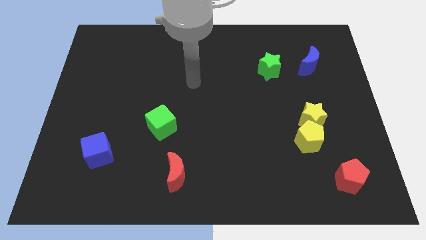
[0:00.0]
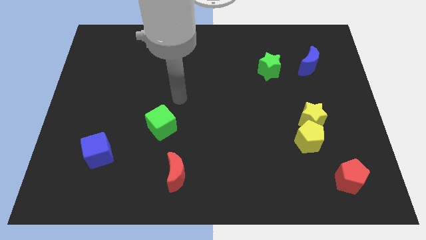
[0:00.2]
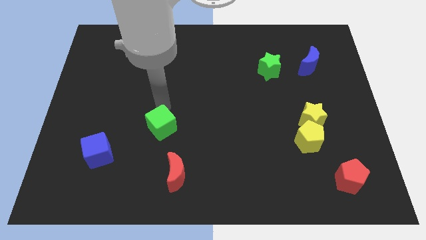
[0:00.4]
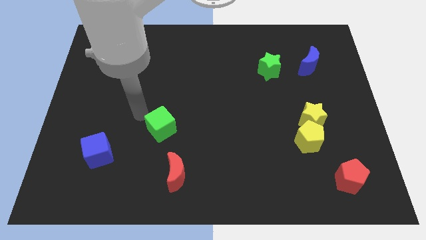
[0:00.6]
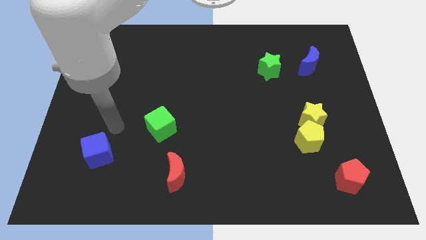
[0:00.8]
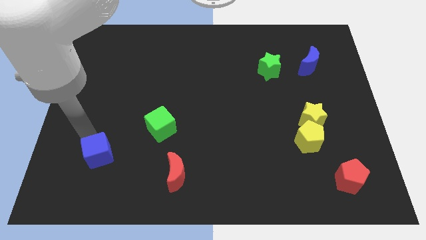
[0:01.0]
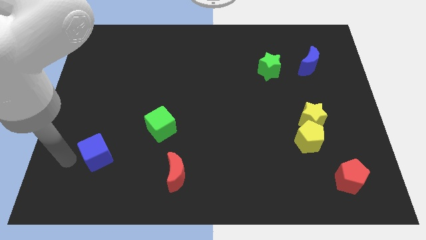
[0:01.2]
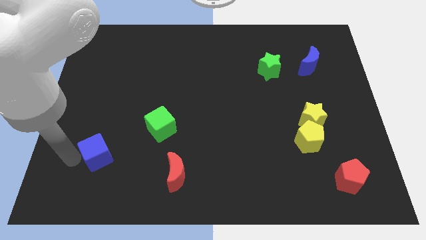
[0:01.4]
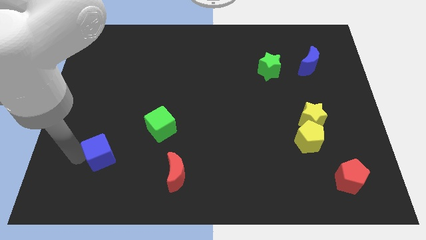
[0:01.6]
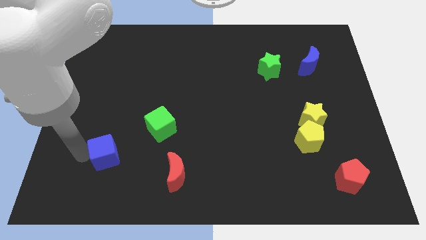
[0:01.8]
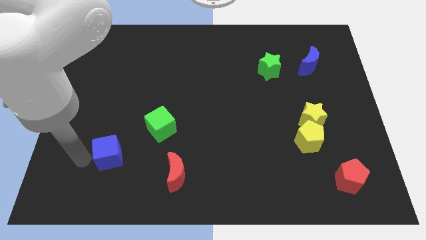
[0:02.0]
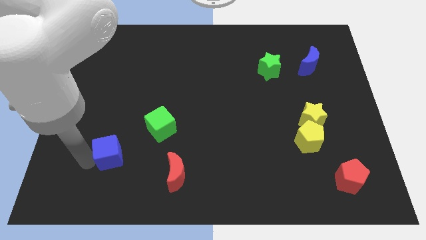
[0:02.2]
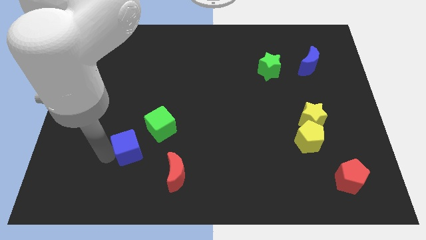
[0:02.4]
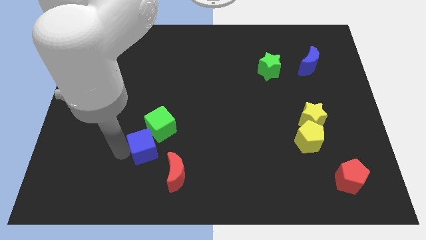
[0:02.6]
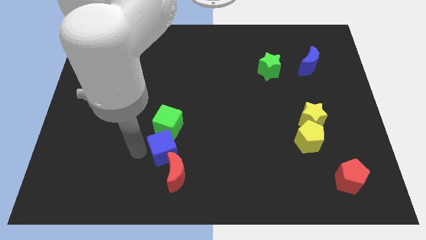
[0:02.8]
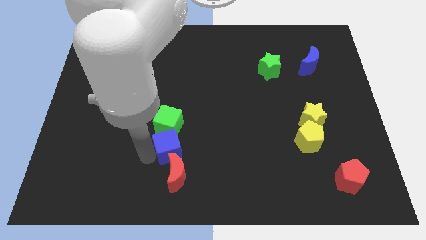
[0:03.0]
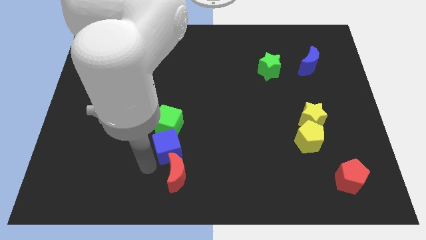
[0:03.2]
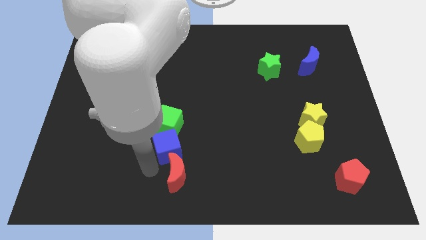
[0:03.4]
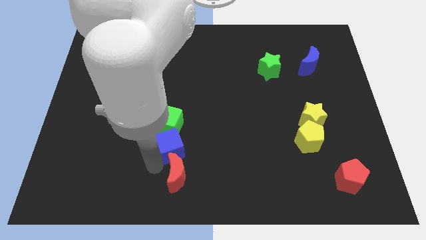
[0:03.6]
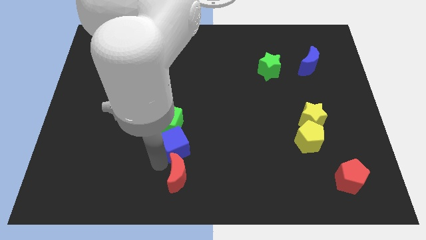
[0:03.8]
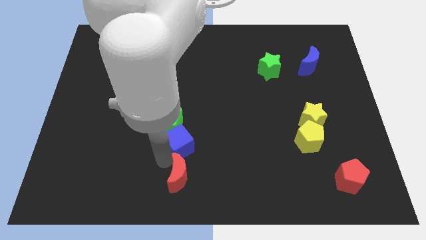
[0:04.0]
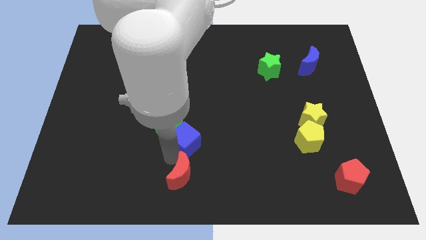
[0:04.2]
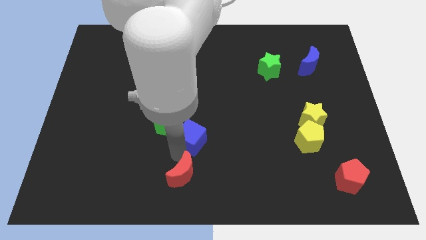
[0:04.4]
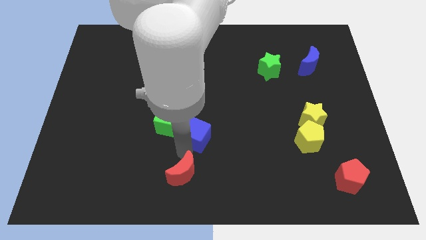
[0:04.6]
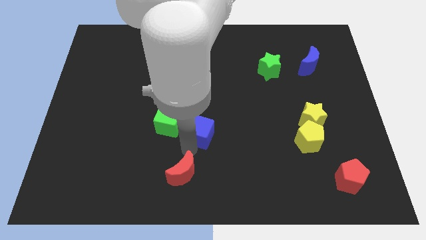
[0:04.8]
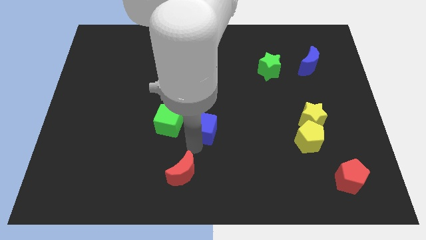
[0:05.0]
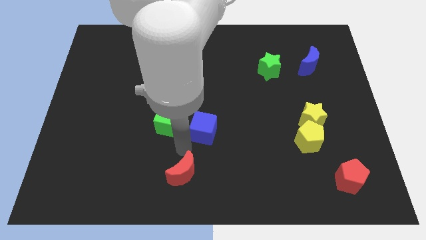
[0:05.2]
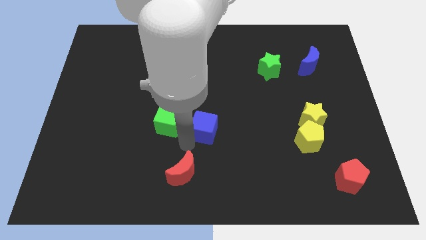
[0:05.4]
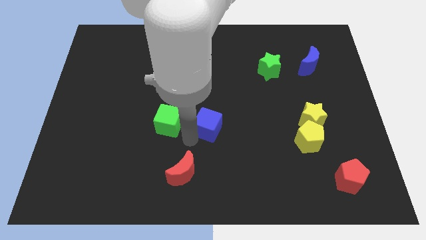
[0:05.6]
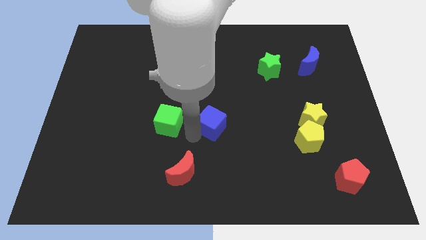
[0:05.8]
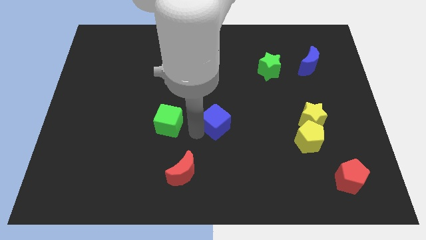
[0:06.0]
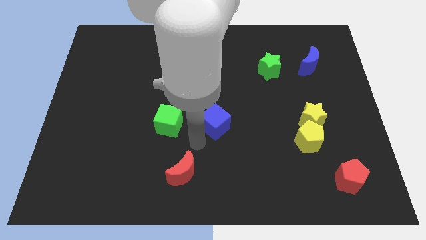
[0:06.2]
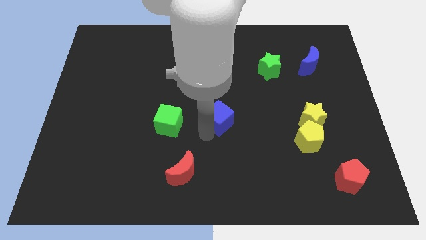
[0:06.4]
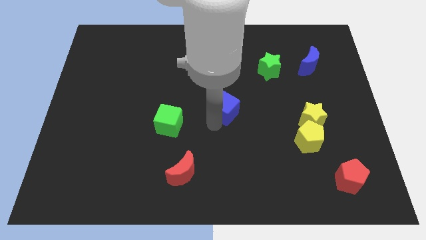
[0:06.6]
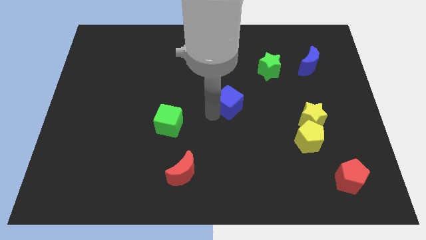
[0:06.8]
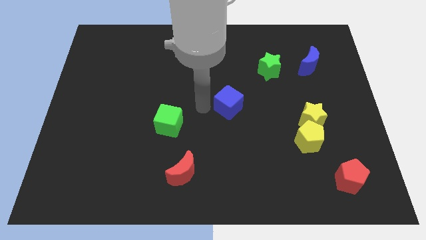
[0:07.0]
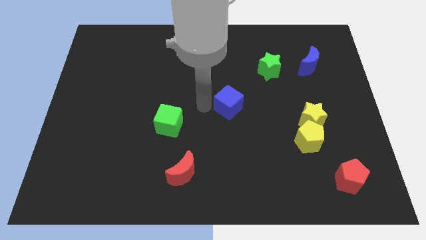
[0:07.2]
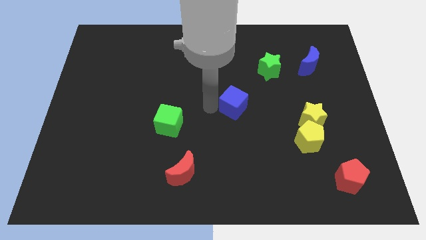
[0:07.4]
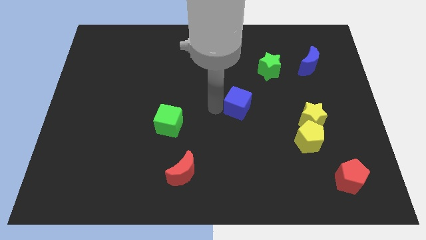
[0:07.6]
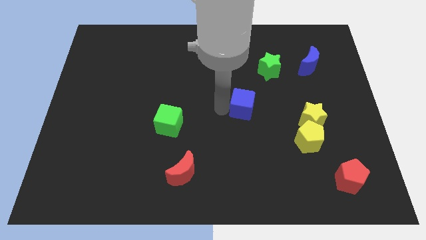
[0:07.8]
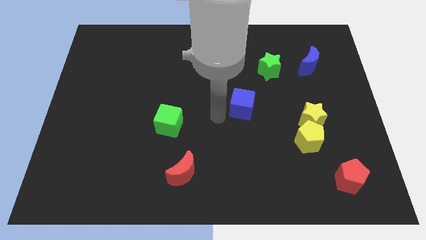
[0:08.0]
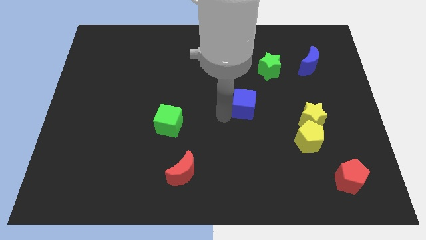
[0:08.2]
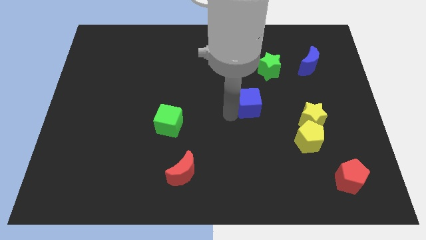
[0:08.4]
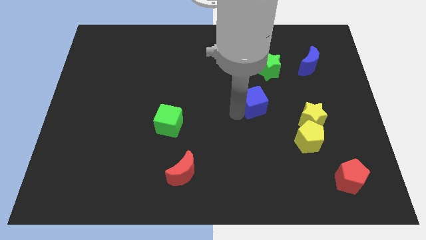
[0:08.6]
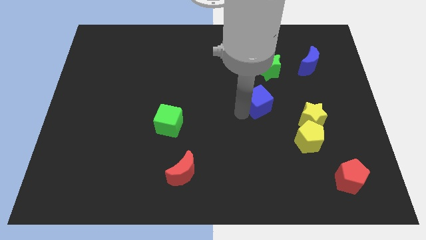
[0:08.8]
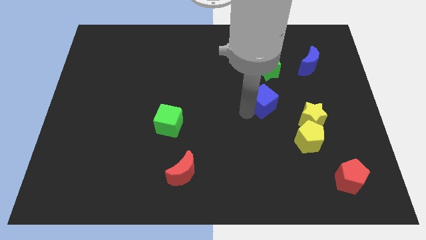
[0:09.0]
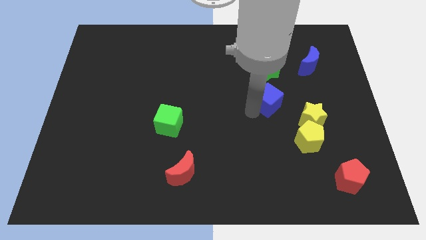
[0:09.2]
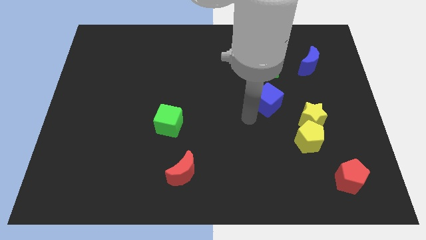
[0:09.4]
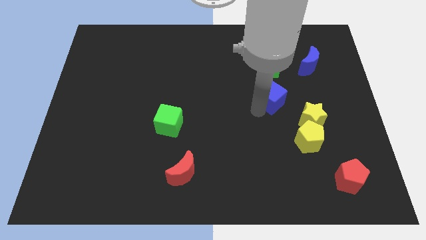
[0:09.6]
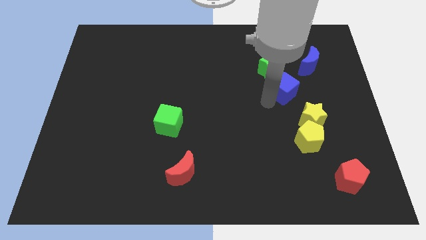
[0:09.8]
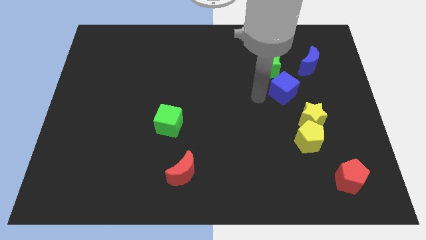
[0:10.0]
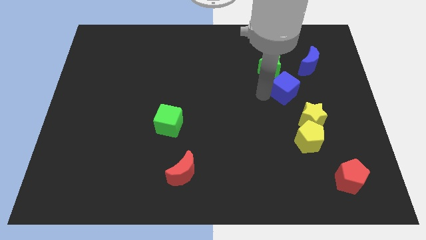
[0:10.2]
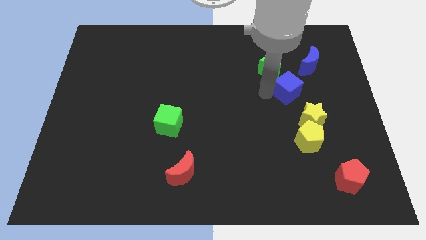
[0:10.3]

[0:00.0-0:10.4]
push the blue cube to the top of the yellow star

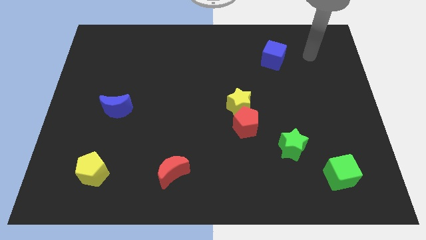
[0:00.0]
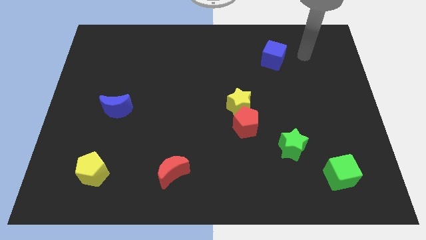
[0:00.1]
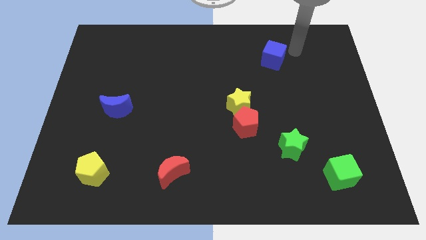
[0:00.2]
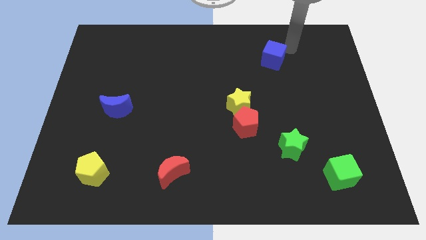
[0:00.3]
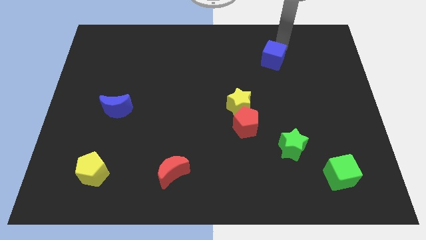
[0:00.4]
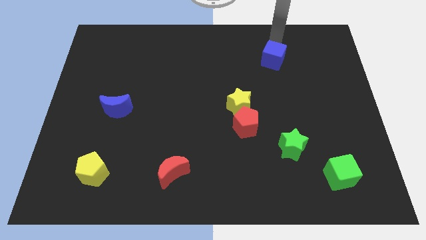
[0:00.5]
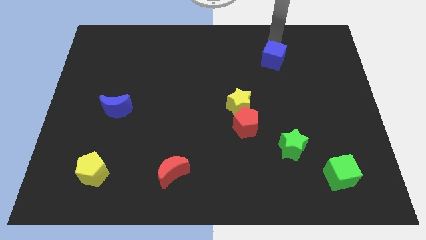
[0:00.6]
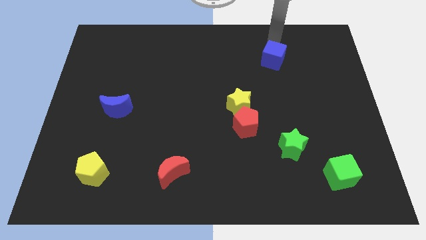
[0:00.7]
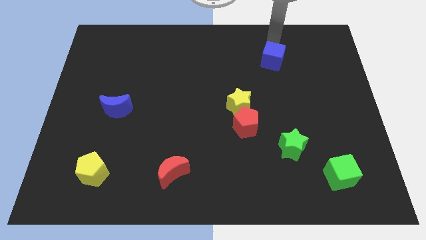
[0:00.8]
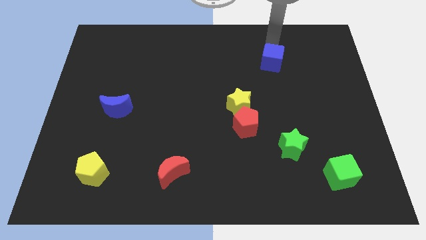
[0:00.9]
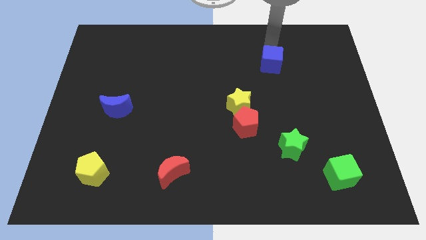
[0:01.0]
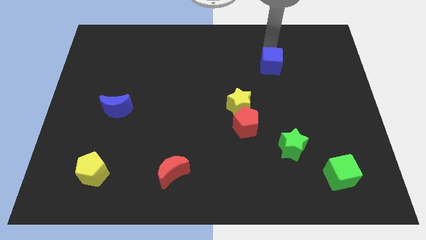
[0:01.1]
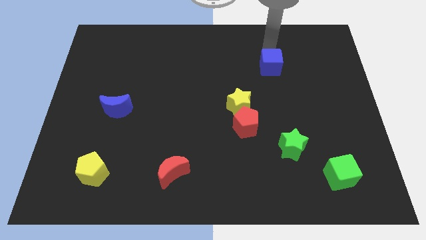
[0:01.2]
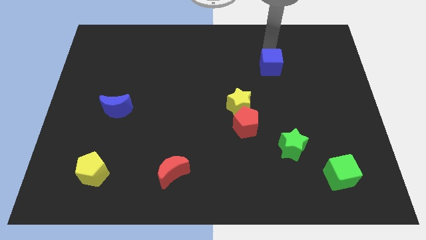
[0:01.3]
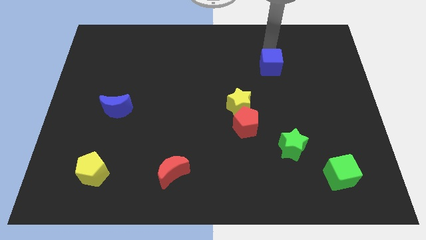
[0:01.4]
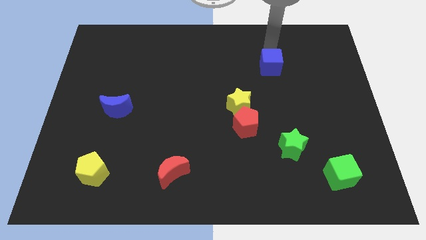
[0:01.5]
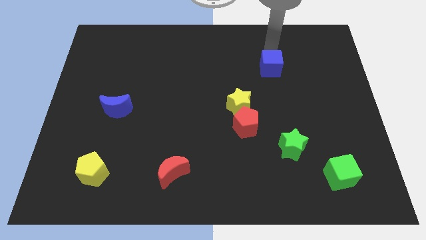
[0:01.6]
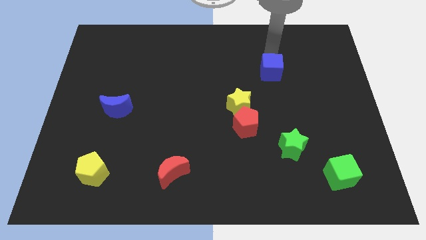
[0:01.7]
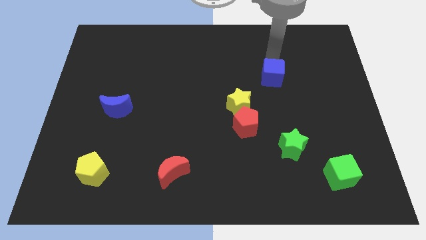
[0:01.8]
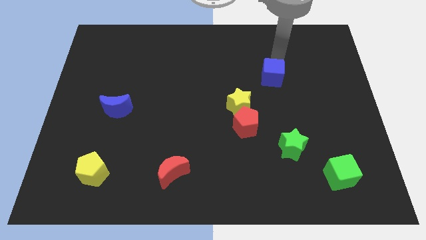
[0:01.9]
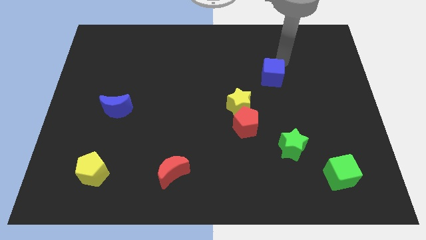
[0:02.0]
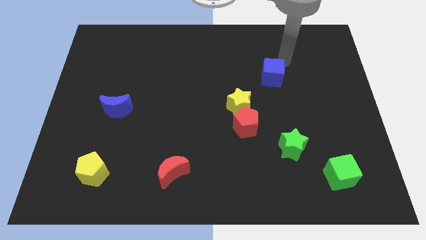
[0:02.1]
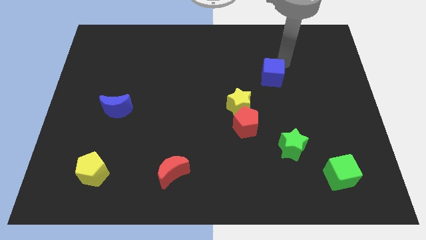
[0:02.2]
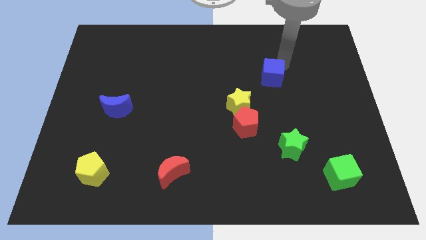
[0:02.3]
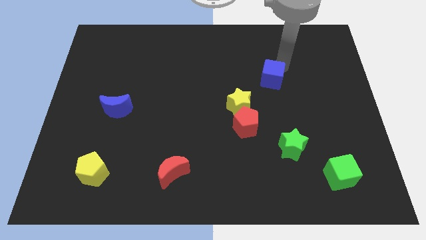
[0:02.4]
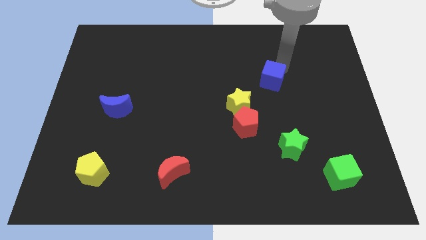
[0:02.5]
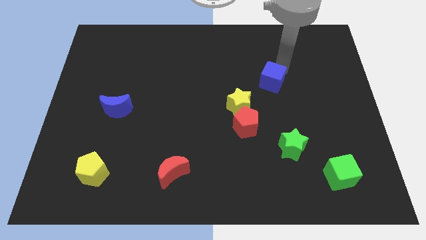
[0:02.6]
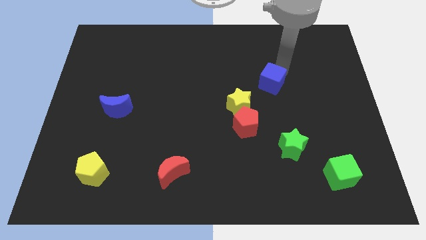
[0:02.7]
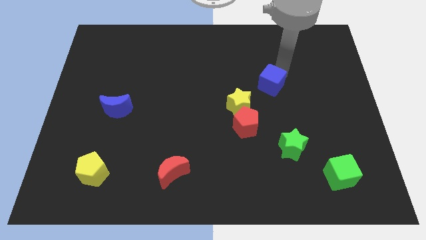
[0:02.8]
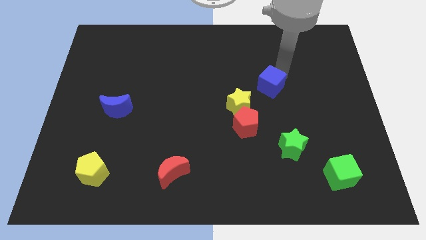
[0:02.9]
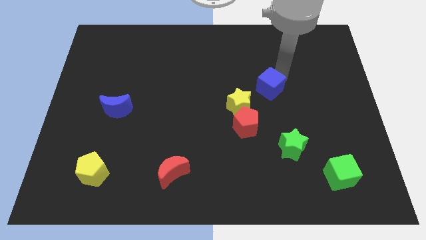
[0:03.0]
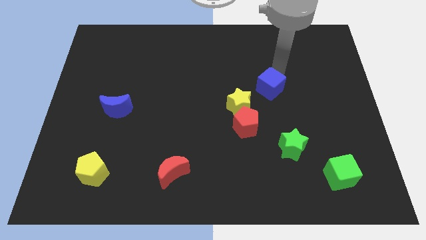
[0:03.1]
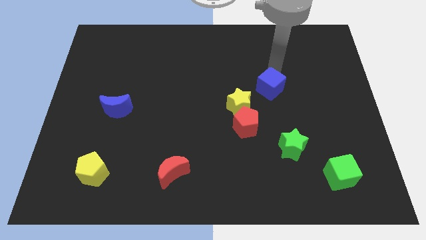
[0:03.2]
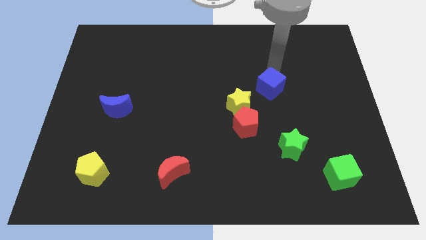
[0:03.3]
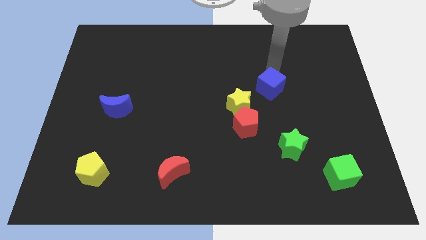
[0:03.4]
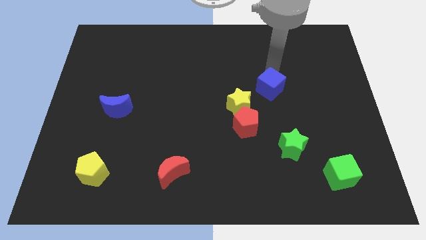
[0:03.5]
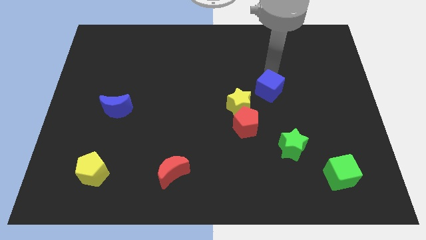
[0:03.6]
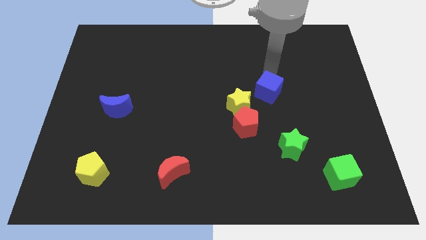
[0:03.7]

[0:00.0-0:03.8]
slide the blue cube diagonally up and to the right of the red pentagon
